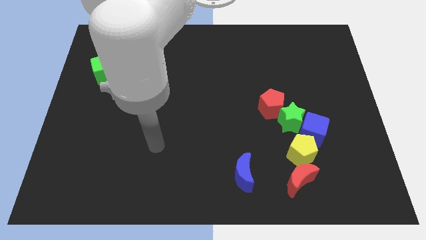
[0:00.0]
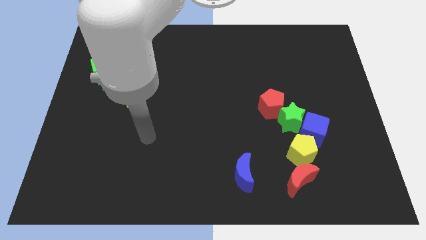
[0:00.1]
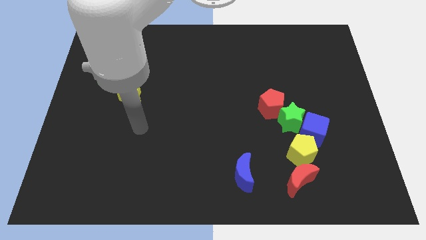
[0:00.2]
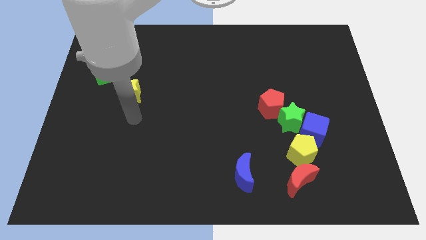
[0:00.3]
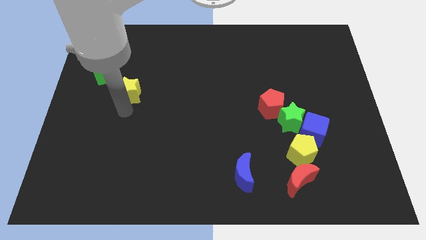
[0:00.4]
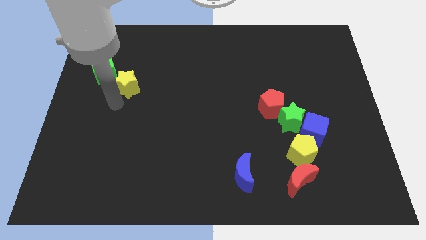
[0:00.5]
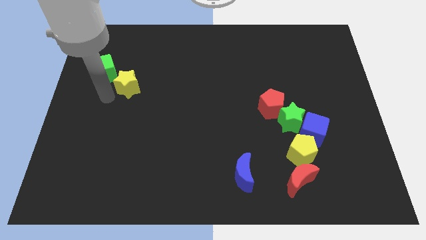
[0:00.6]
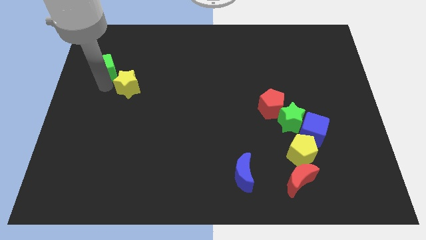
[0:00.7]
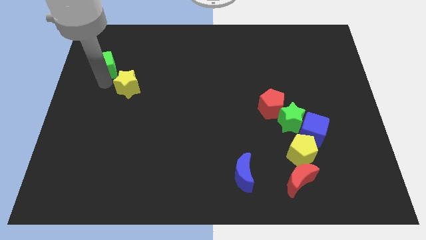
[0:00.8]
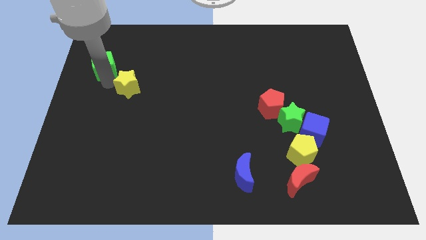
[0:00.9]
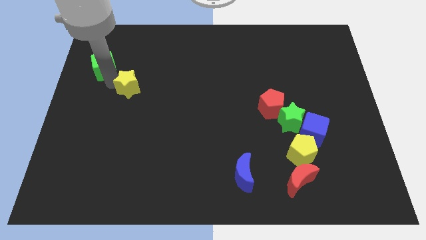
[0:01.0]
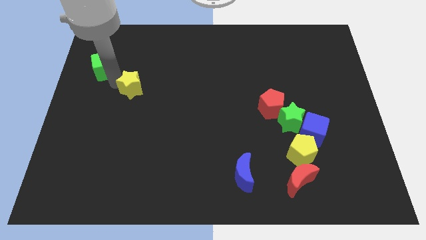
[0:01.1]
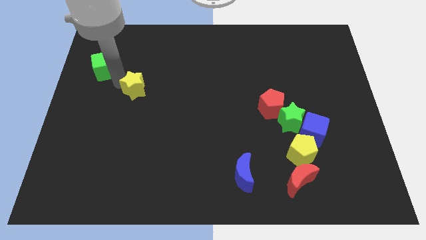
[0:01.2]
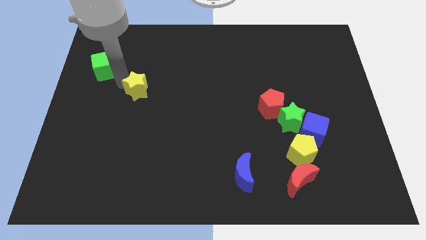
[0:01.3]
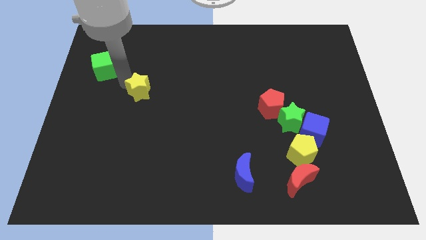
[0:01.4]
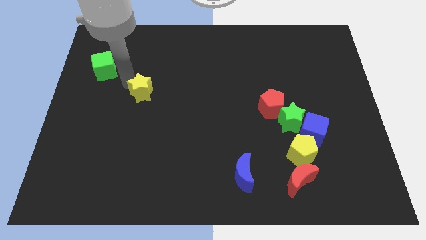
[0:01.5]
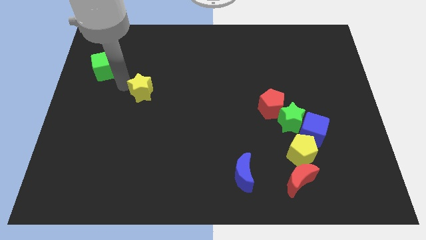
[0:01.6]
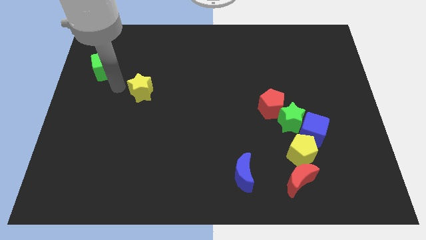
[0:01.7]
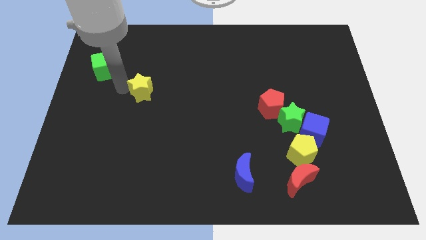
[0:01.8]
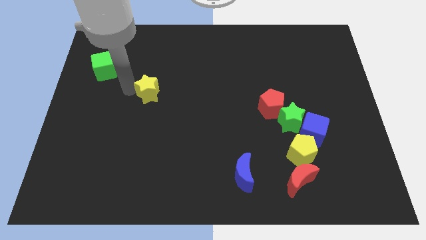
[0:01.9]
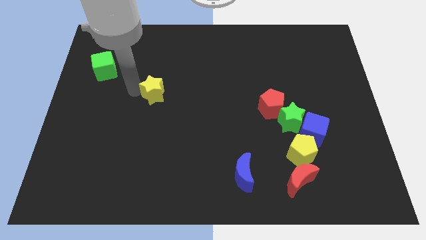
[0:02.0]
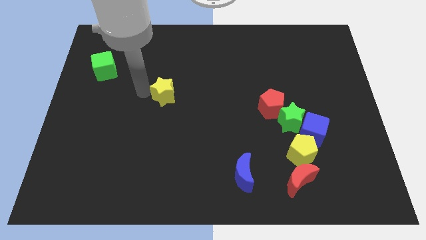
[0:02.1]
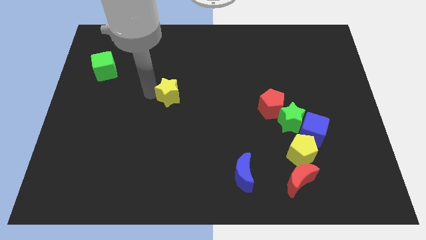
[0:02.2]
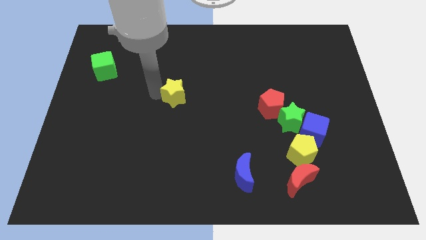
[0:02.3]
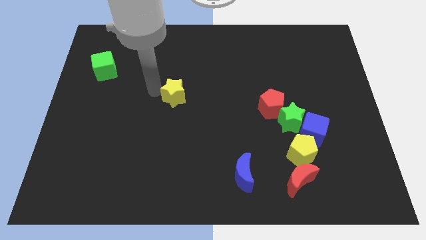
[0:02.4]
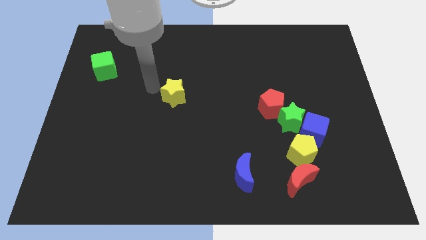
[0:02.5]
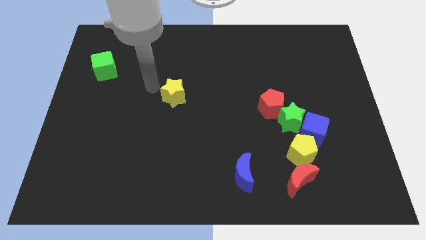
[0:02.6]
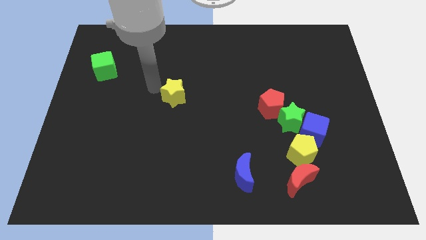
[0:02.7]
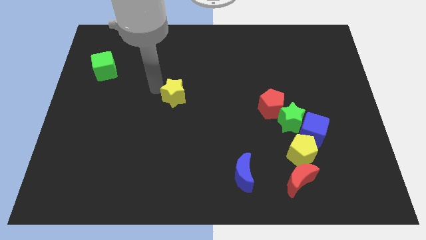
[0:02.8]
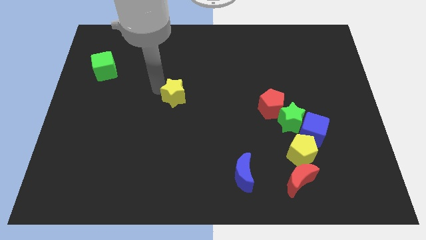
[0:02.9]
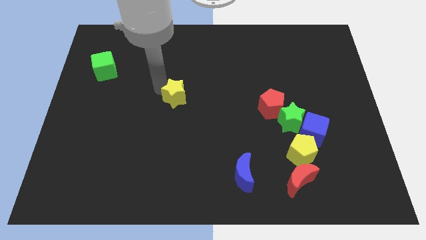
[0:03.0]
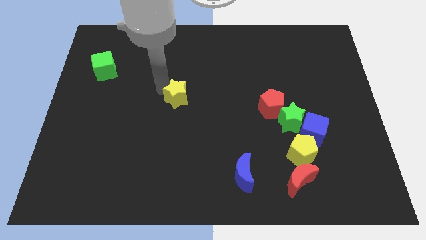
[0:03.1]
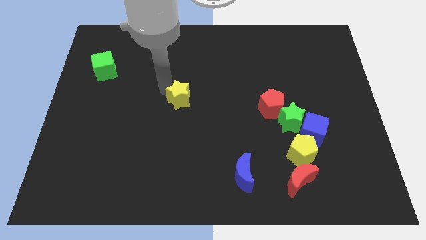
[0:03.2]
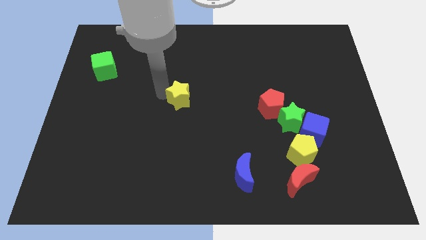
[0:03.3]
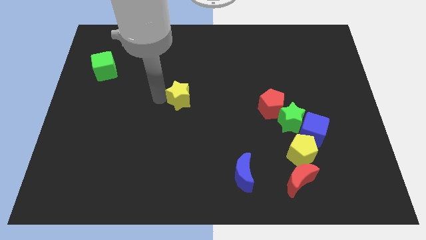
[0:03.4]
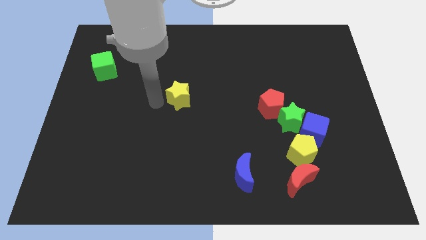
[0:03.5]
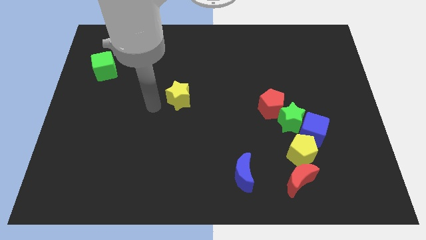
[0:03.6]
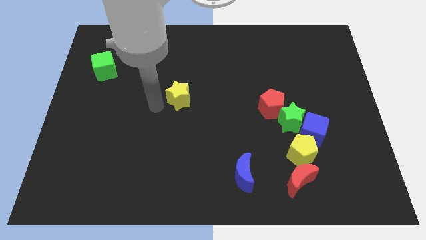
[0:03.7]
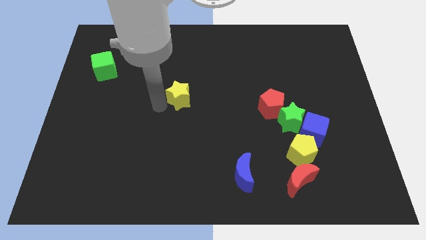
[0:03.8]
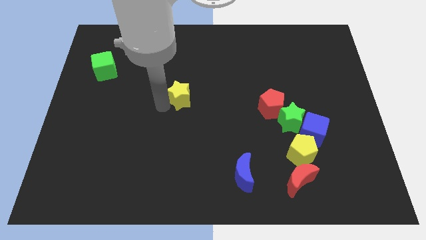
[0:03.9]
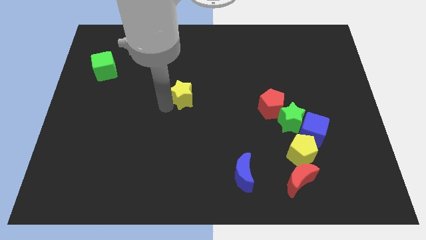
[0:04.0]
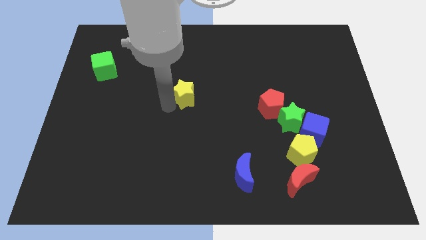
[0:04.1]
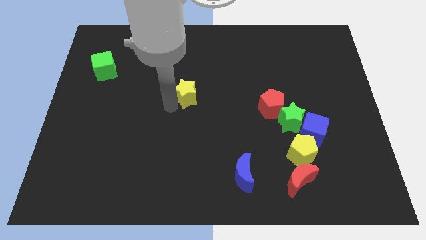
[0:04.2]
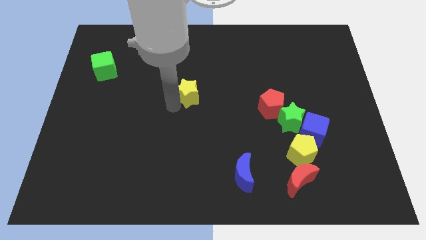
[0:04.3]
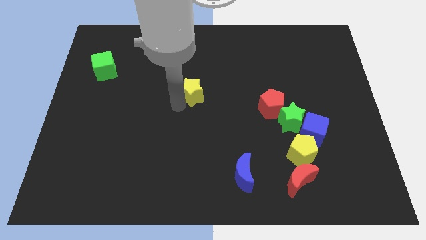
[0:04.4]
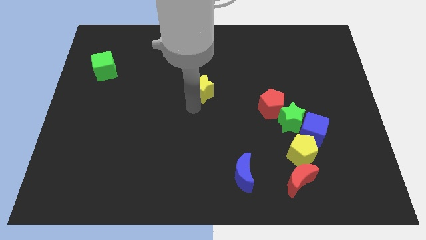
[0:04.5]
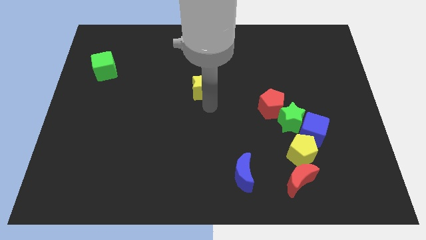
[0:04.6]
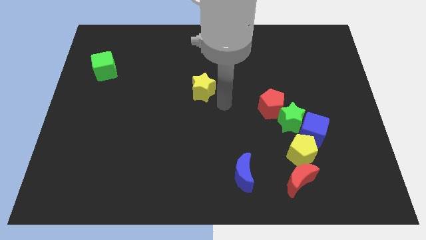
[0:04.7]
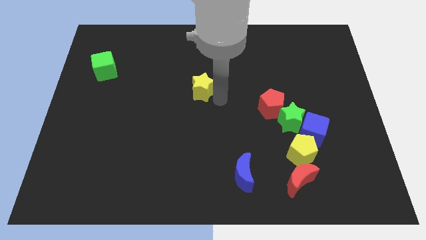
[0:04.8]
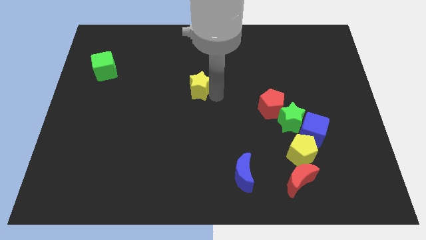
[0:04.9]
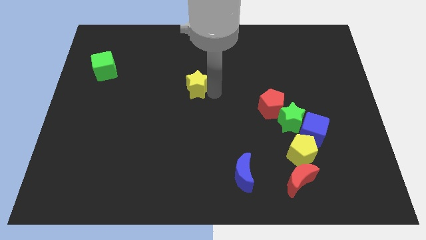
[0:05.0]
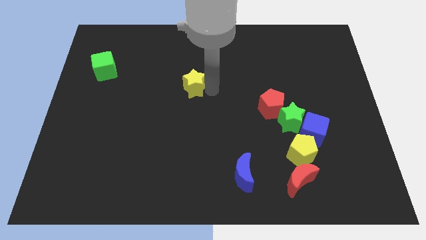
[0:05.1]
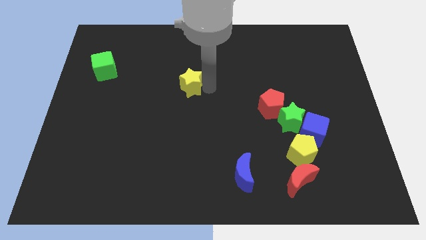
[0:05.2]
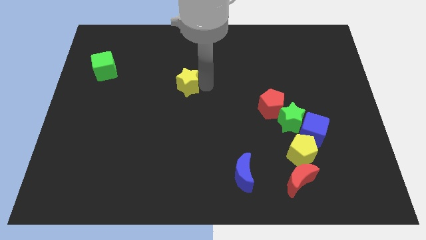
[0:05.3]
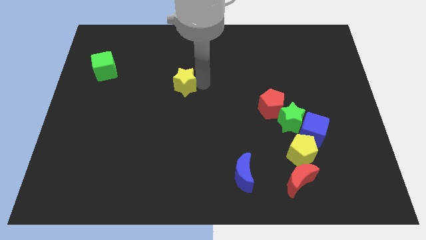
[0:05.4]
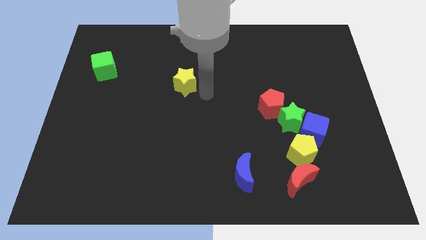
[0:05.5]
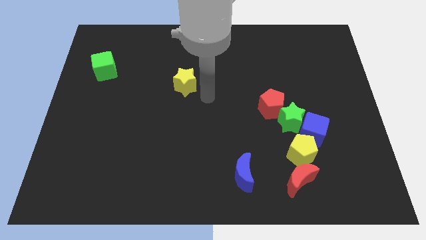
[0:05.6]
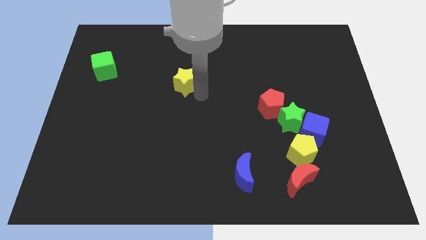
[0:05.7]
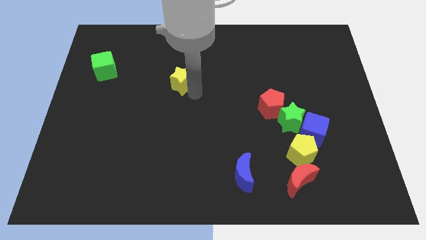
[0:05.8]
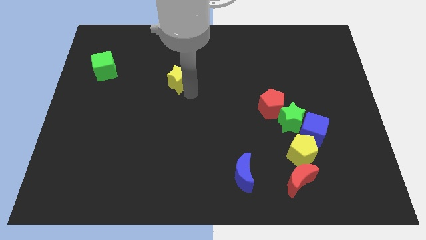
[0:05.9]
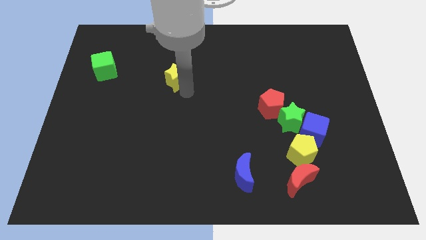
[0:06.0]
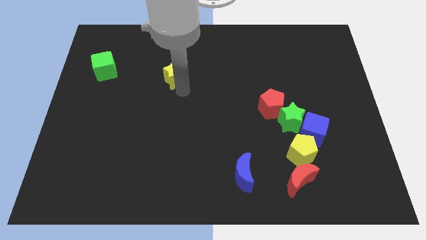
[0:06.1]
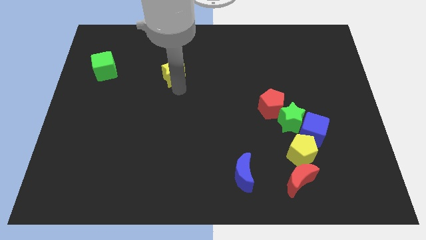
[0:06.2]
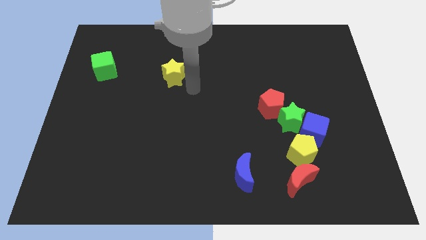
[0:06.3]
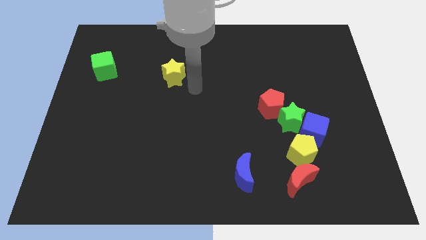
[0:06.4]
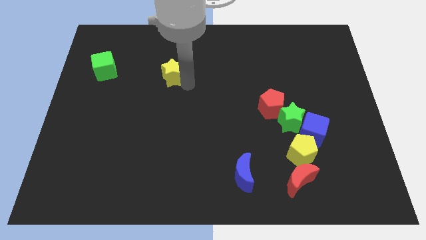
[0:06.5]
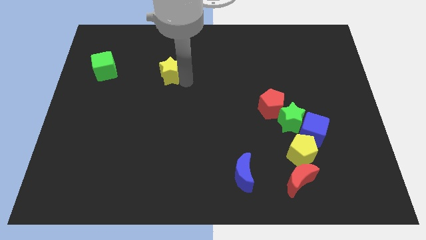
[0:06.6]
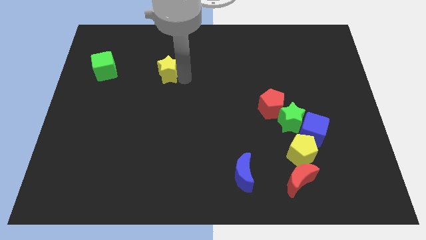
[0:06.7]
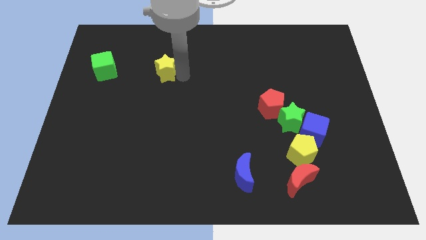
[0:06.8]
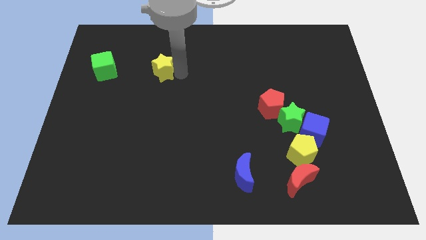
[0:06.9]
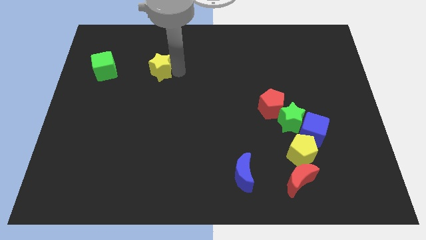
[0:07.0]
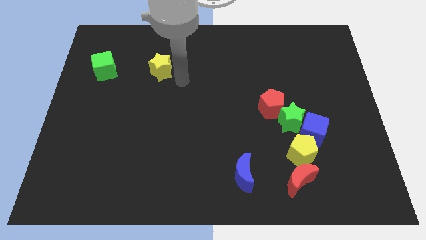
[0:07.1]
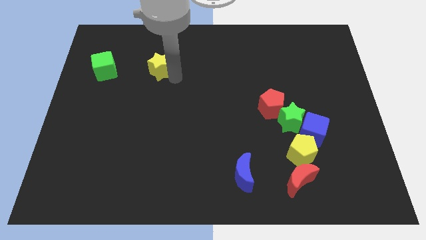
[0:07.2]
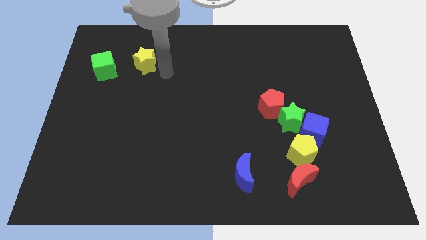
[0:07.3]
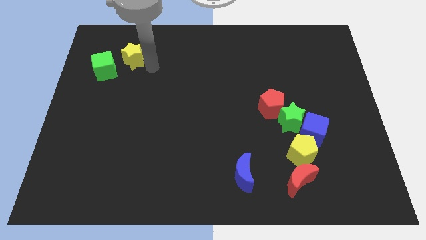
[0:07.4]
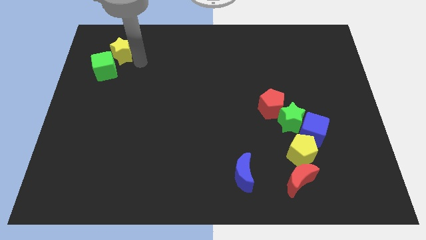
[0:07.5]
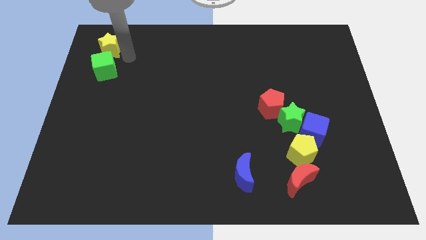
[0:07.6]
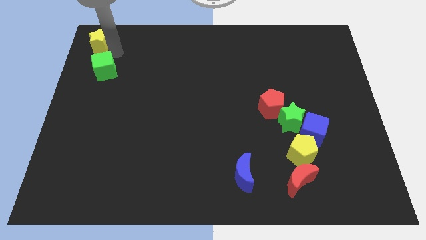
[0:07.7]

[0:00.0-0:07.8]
push the yellow star to the top left
